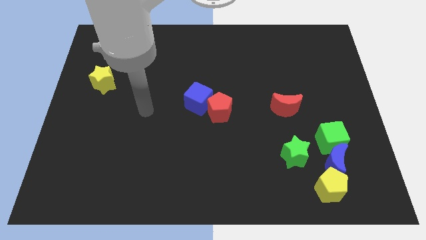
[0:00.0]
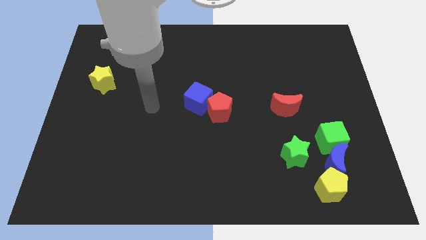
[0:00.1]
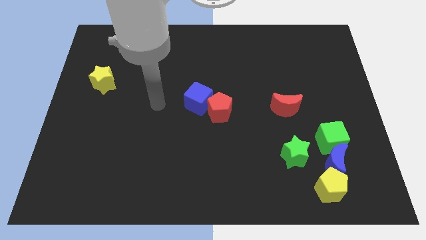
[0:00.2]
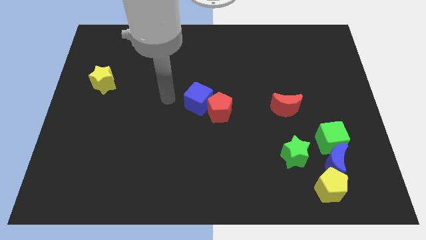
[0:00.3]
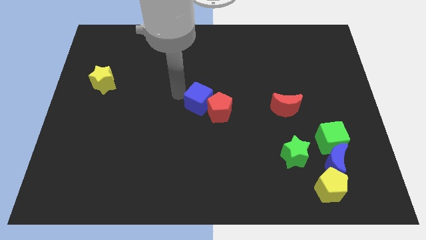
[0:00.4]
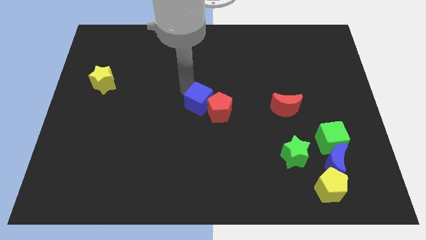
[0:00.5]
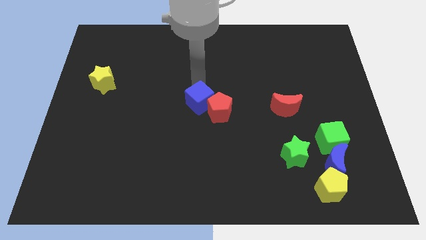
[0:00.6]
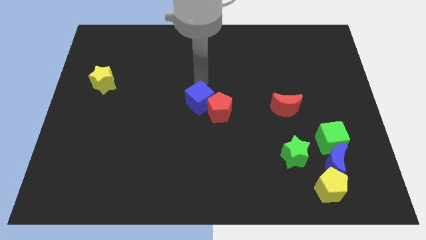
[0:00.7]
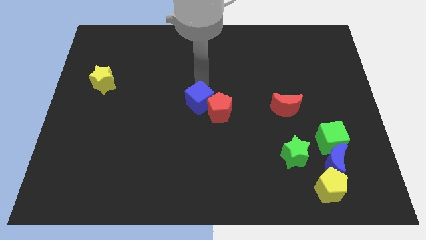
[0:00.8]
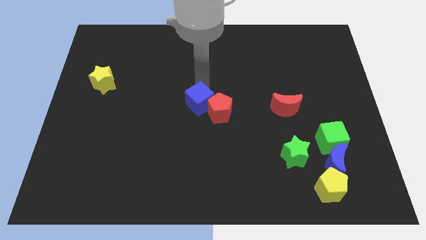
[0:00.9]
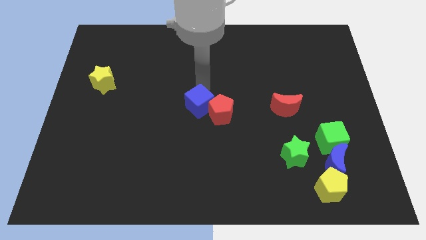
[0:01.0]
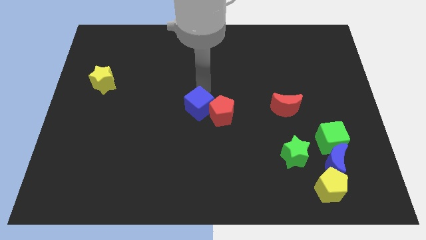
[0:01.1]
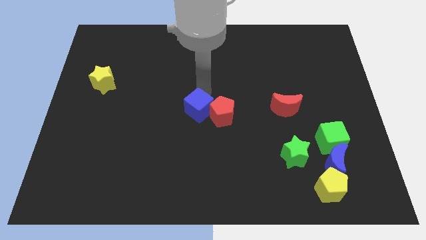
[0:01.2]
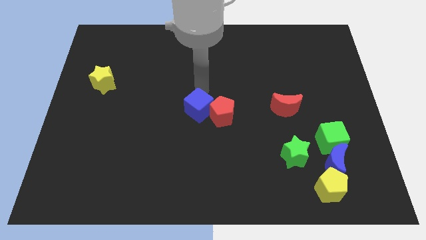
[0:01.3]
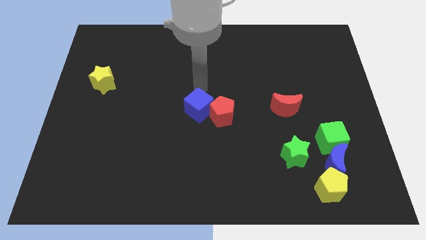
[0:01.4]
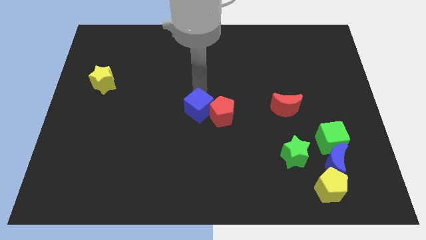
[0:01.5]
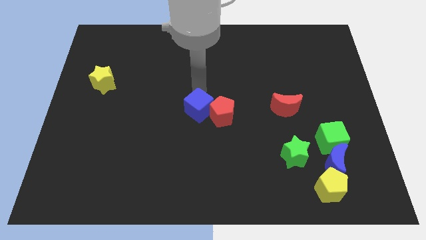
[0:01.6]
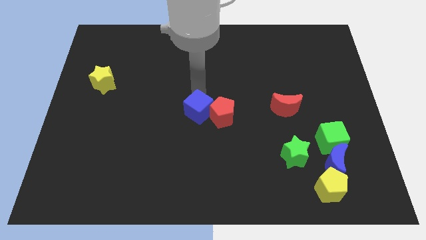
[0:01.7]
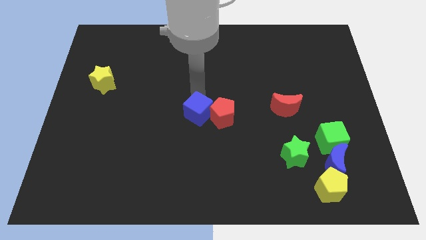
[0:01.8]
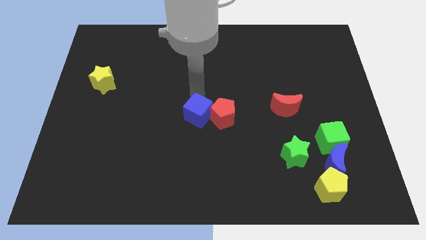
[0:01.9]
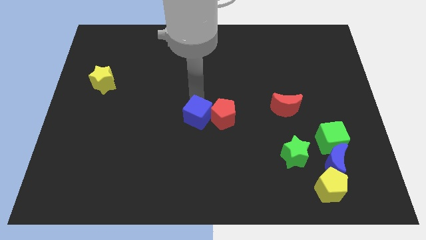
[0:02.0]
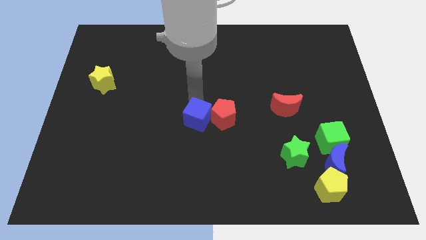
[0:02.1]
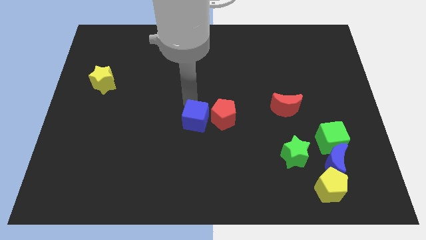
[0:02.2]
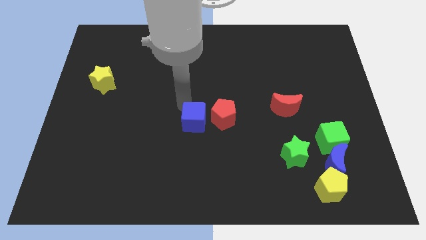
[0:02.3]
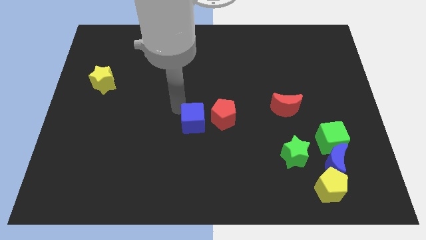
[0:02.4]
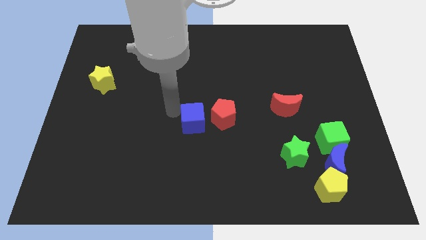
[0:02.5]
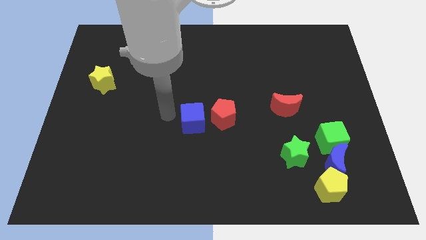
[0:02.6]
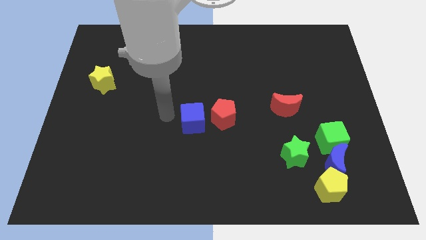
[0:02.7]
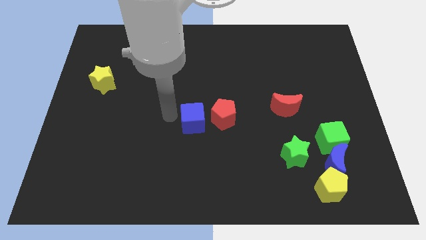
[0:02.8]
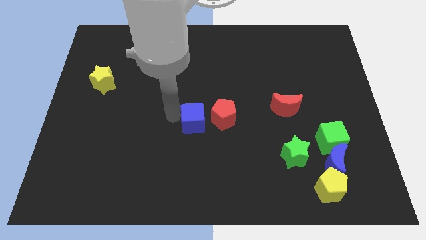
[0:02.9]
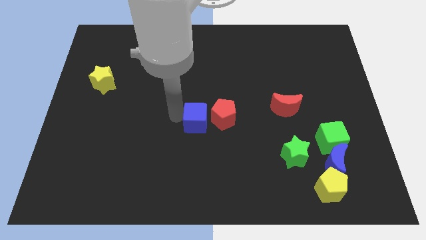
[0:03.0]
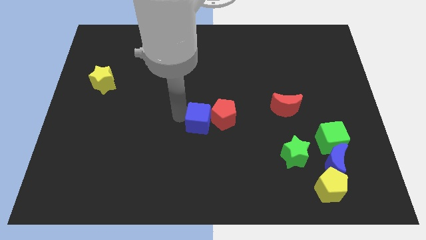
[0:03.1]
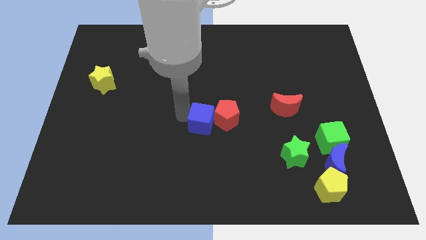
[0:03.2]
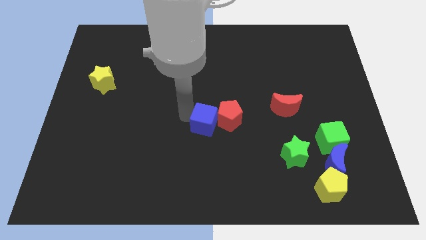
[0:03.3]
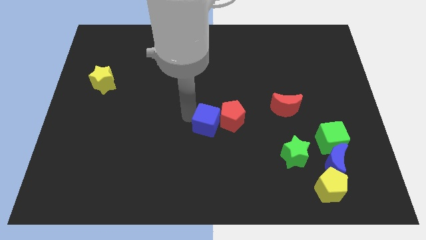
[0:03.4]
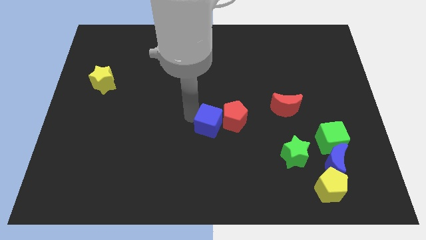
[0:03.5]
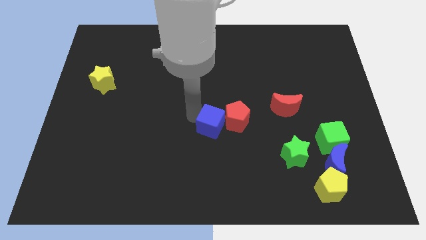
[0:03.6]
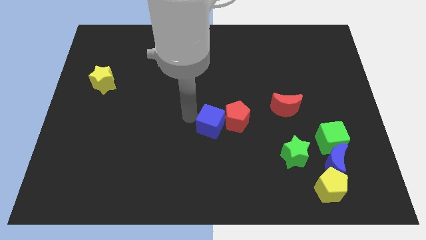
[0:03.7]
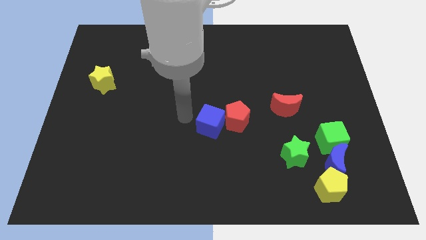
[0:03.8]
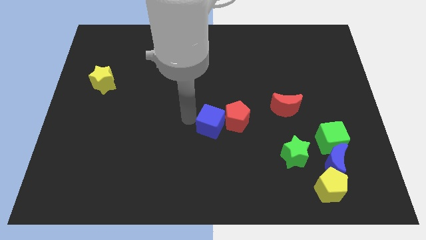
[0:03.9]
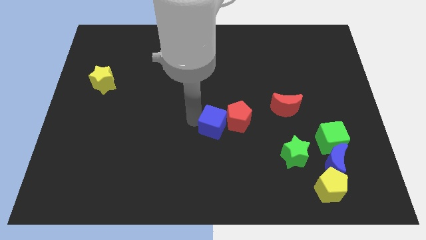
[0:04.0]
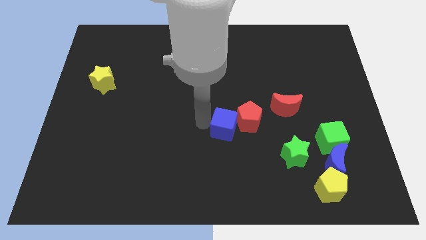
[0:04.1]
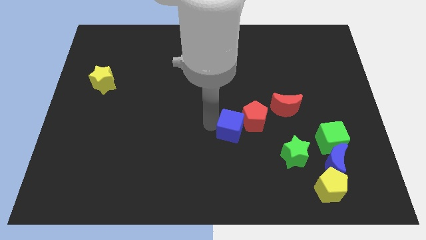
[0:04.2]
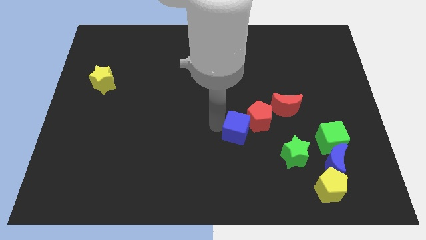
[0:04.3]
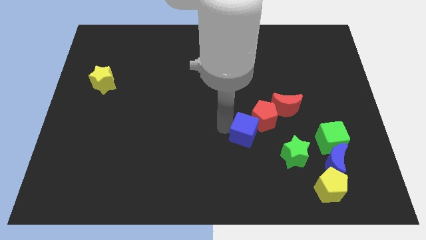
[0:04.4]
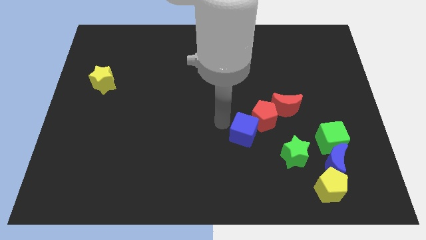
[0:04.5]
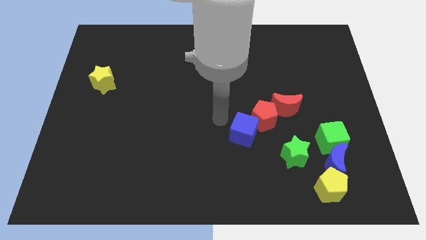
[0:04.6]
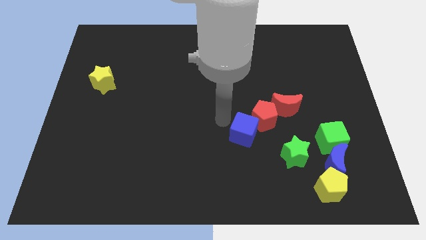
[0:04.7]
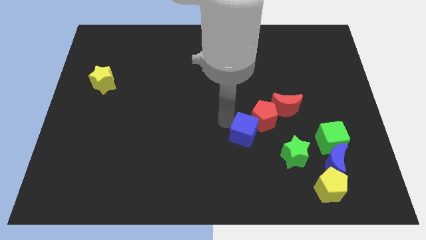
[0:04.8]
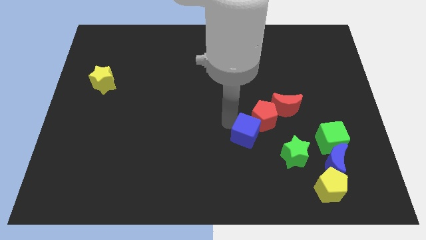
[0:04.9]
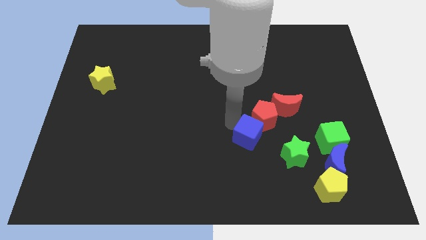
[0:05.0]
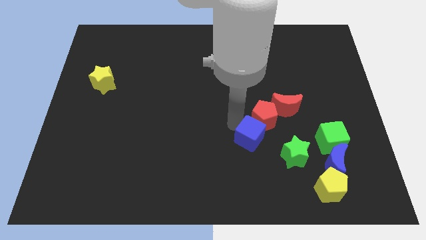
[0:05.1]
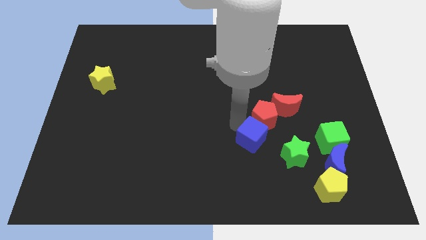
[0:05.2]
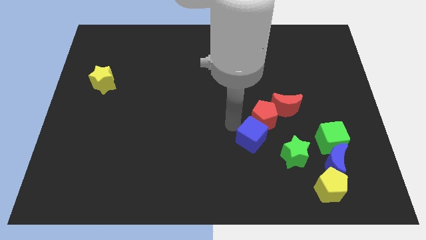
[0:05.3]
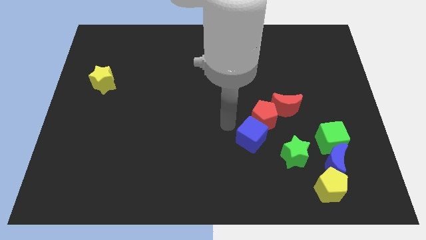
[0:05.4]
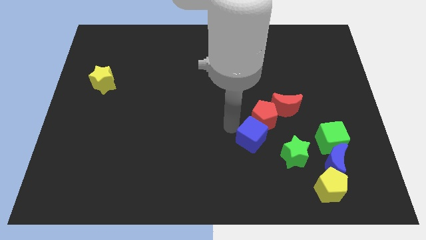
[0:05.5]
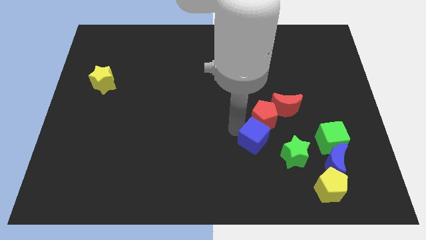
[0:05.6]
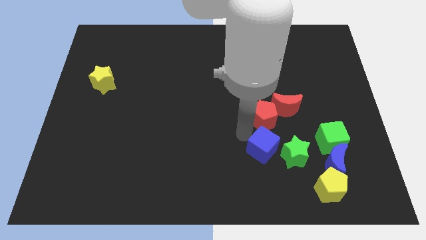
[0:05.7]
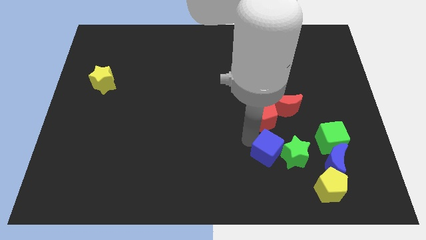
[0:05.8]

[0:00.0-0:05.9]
push the blue cube to the green star

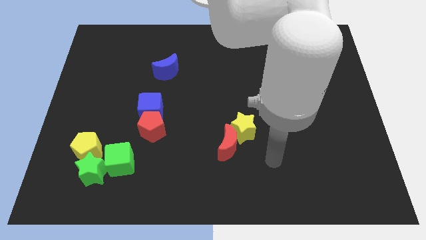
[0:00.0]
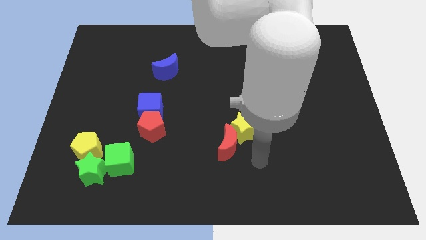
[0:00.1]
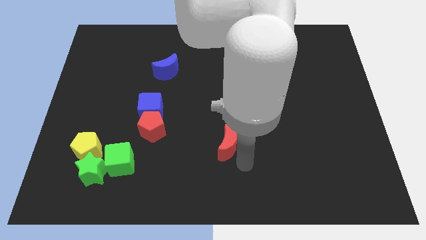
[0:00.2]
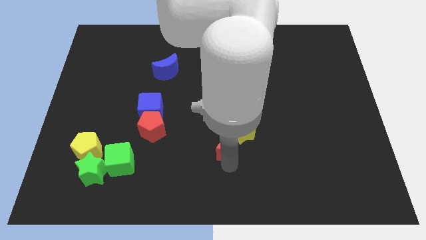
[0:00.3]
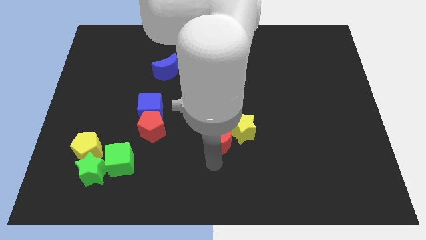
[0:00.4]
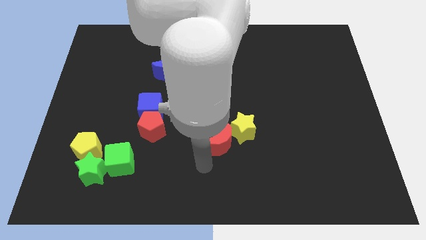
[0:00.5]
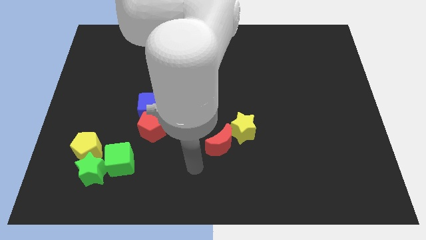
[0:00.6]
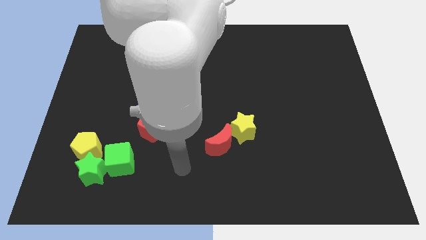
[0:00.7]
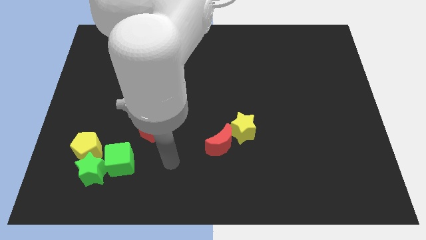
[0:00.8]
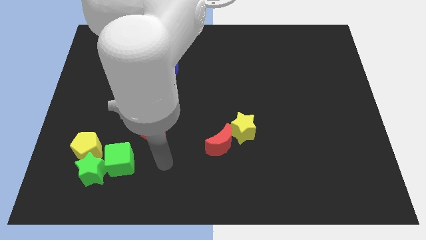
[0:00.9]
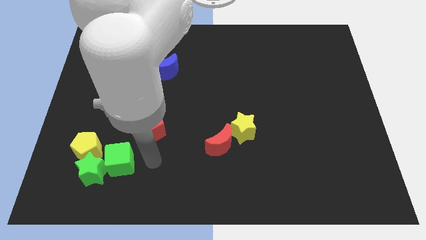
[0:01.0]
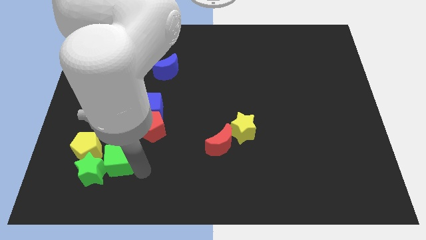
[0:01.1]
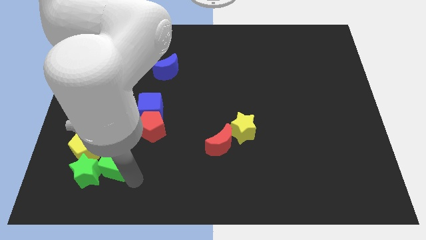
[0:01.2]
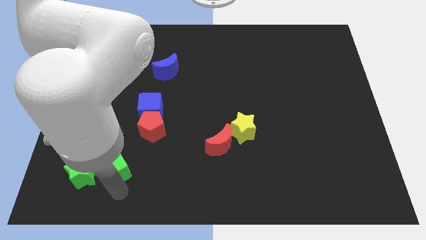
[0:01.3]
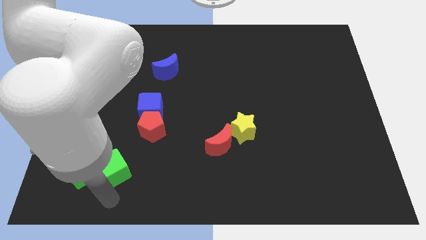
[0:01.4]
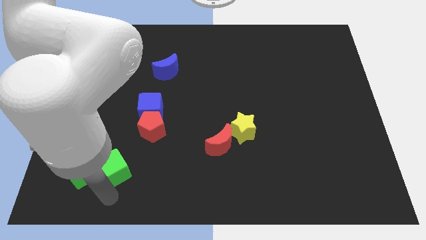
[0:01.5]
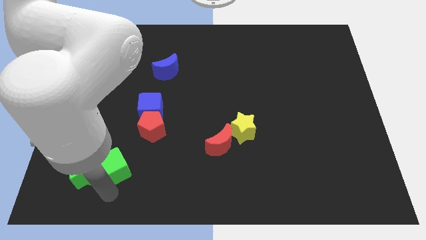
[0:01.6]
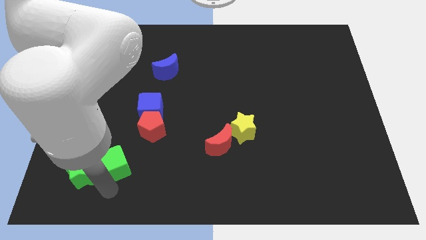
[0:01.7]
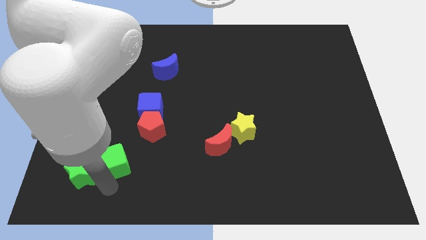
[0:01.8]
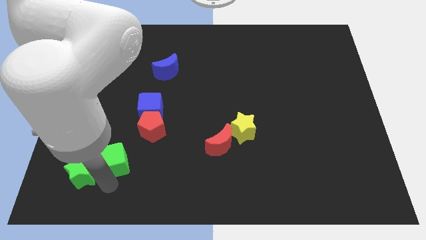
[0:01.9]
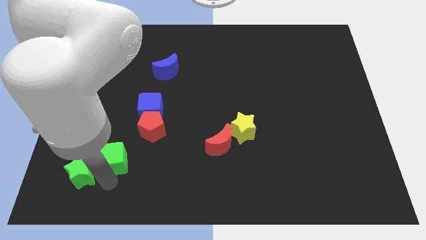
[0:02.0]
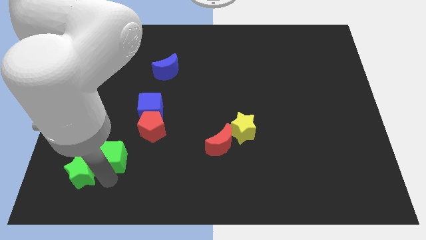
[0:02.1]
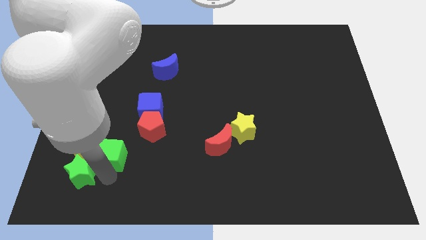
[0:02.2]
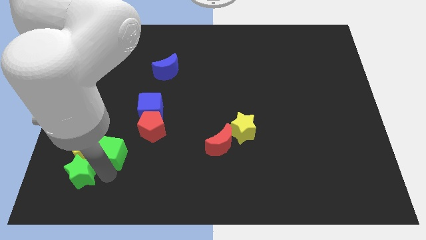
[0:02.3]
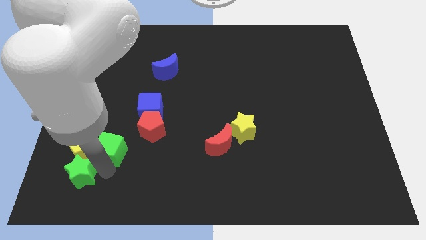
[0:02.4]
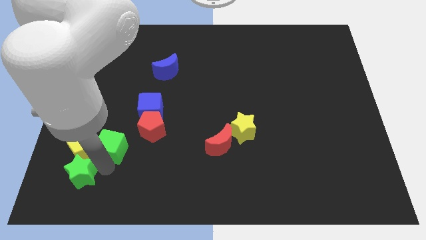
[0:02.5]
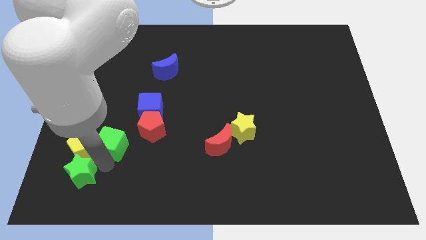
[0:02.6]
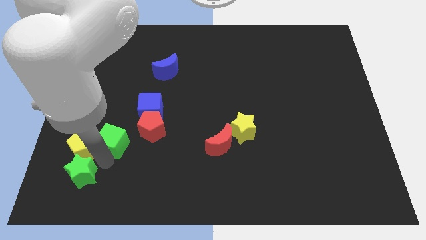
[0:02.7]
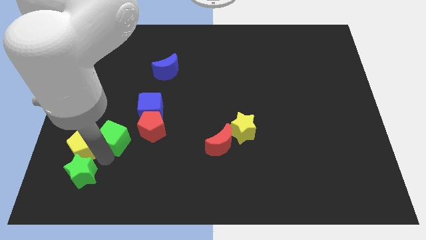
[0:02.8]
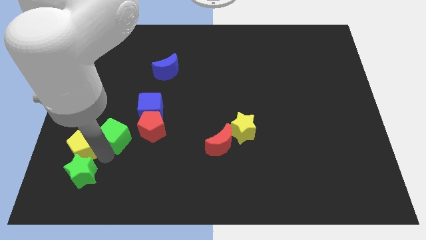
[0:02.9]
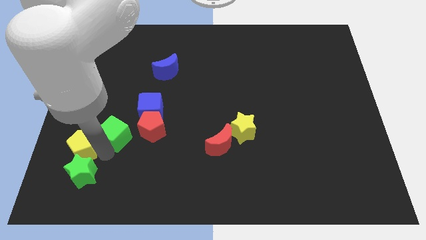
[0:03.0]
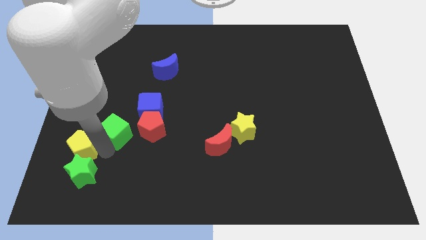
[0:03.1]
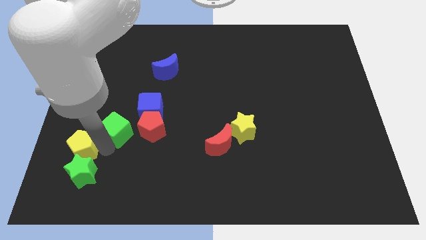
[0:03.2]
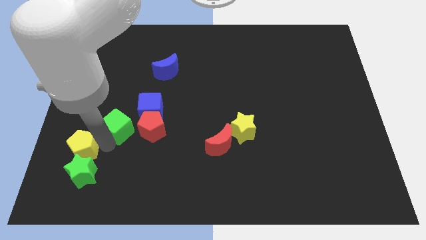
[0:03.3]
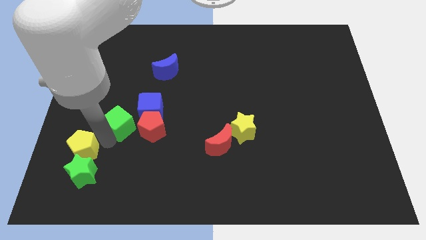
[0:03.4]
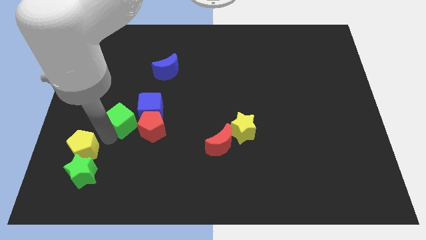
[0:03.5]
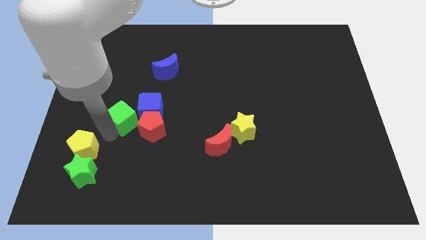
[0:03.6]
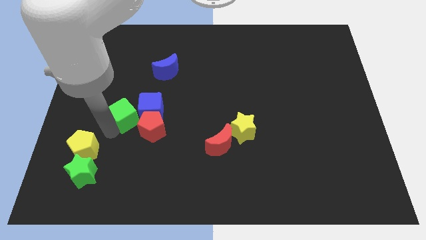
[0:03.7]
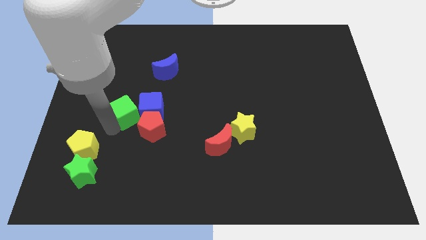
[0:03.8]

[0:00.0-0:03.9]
put the green cube close to the blue cube
